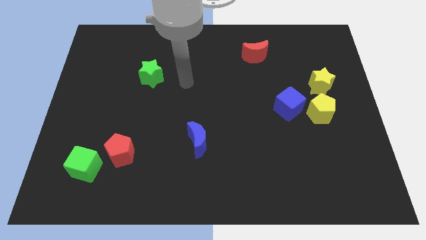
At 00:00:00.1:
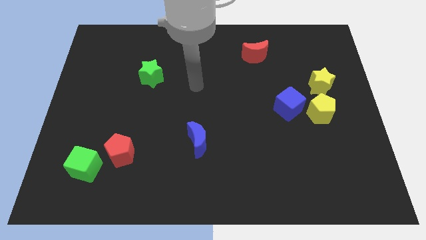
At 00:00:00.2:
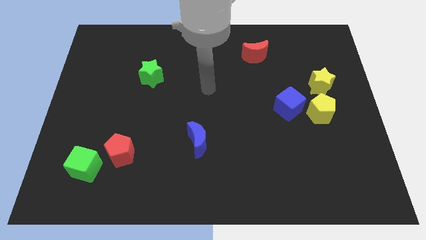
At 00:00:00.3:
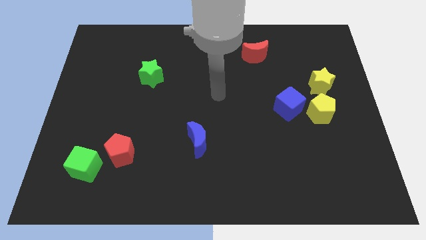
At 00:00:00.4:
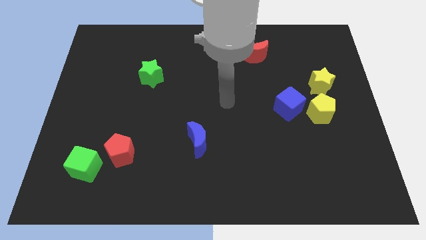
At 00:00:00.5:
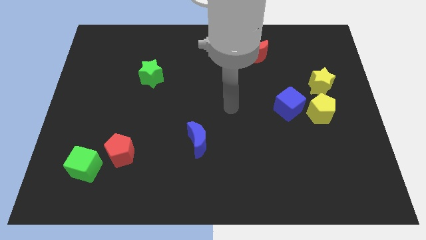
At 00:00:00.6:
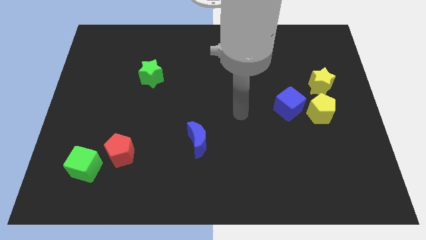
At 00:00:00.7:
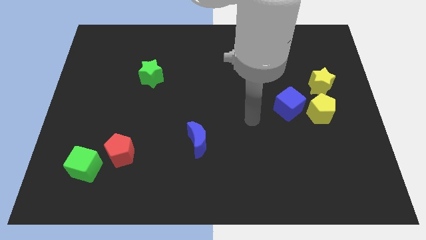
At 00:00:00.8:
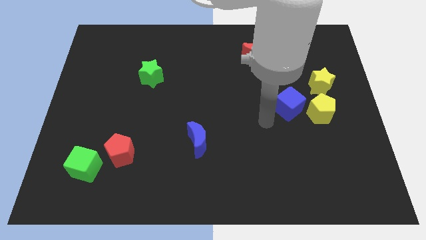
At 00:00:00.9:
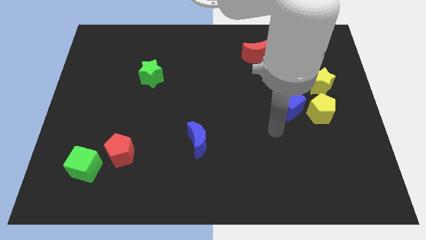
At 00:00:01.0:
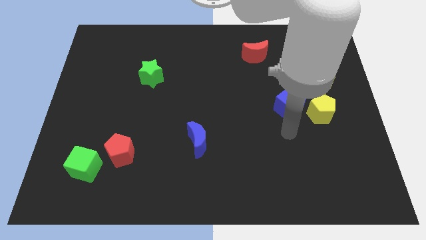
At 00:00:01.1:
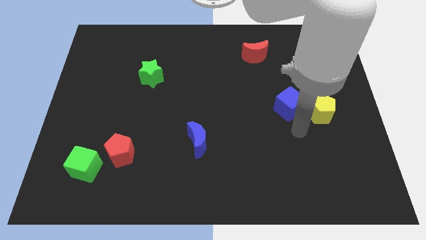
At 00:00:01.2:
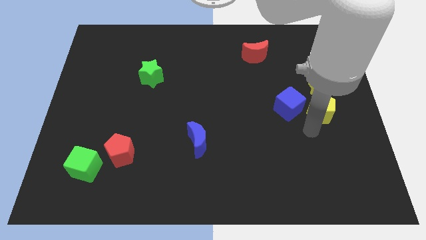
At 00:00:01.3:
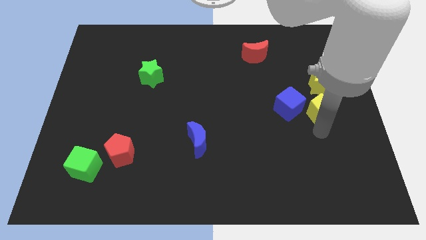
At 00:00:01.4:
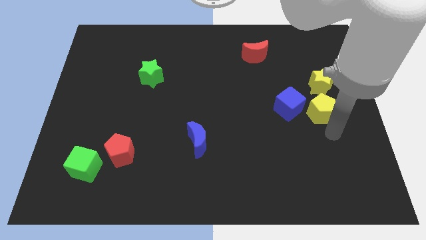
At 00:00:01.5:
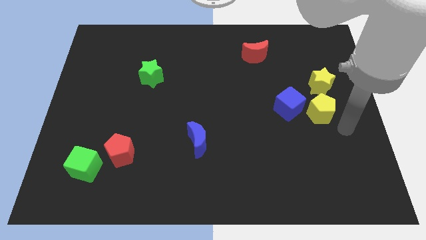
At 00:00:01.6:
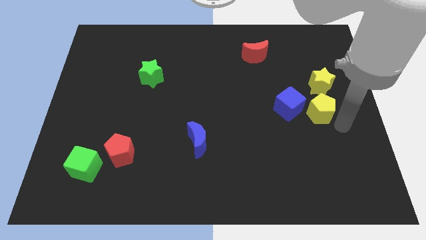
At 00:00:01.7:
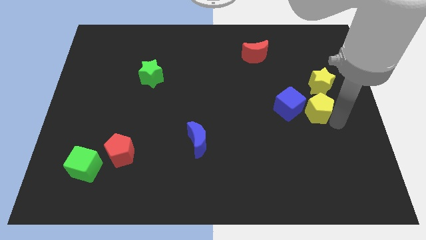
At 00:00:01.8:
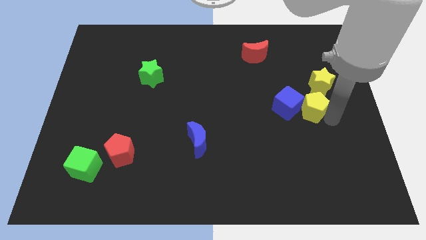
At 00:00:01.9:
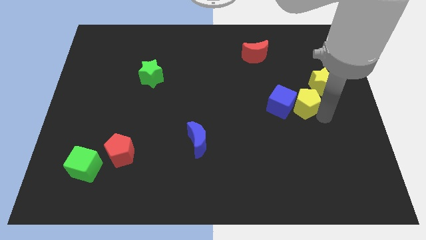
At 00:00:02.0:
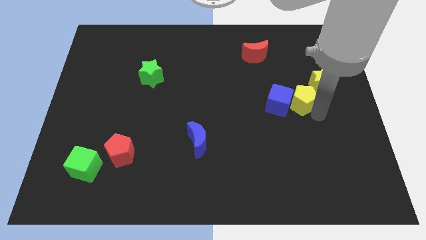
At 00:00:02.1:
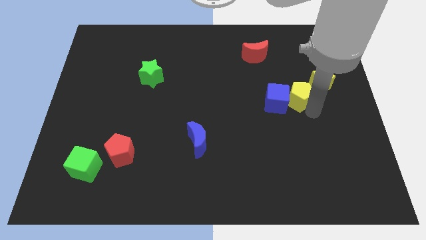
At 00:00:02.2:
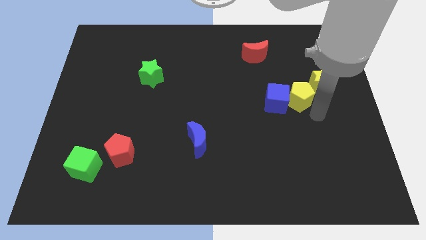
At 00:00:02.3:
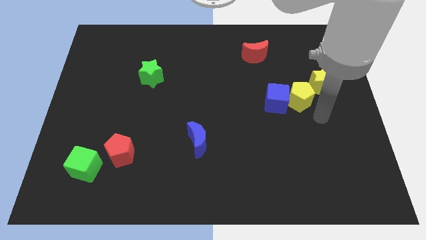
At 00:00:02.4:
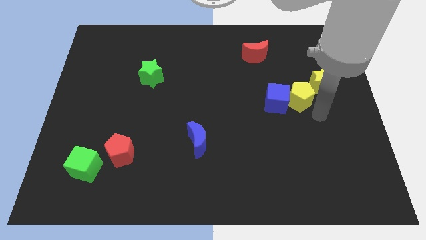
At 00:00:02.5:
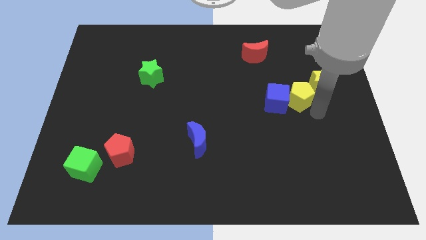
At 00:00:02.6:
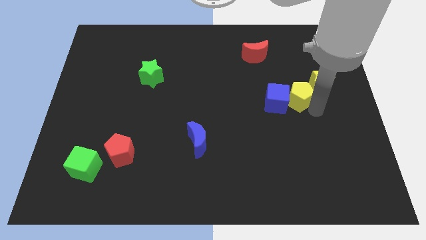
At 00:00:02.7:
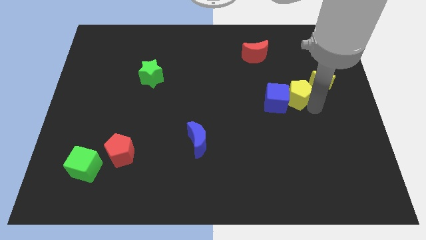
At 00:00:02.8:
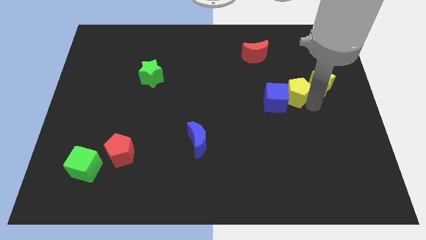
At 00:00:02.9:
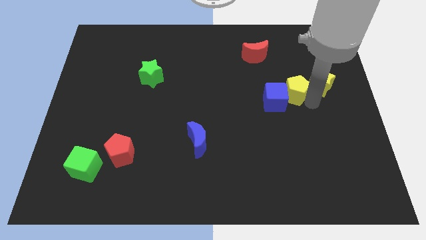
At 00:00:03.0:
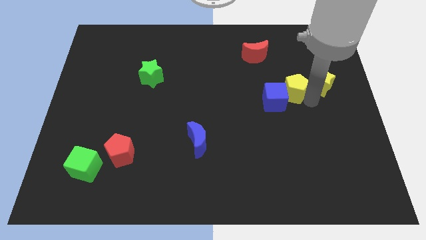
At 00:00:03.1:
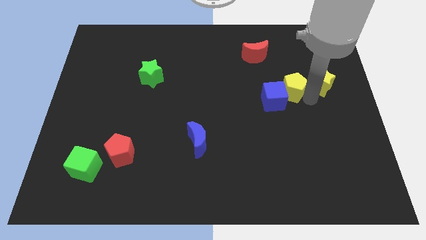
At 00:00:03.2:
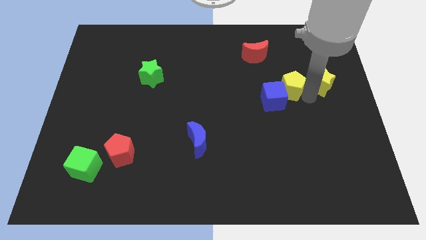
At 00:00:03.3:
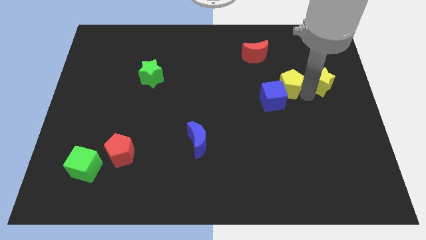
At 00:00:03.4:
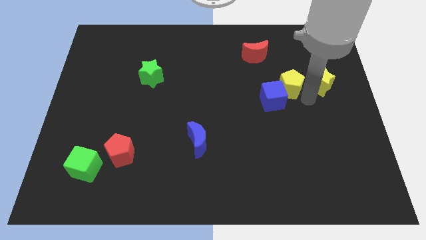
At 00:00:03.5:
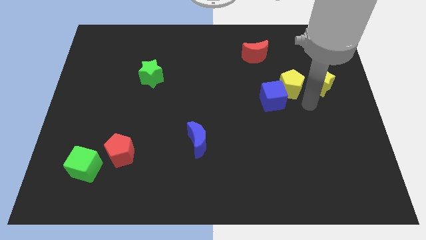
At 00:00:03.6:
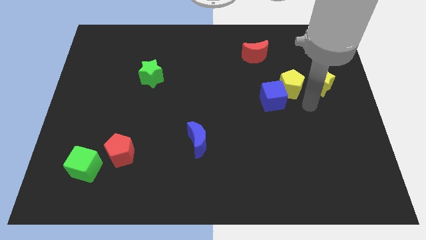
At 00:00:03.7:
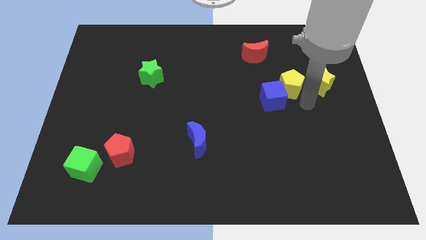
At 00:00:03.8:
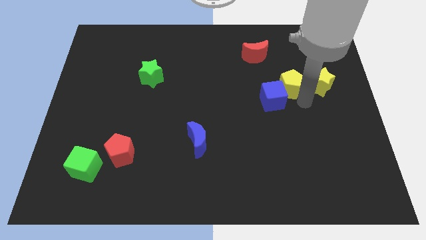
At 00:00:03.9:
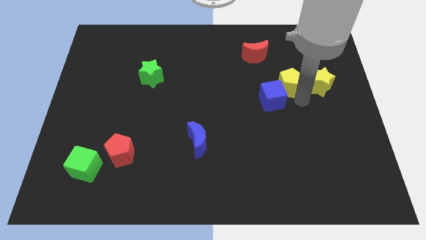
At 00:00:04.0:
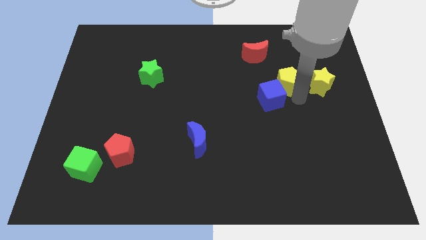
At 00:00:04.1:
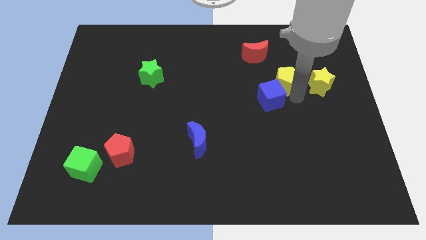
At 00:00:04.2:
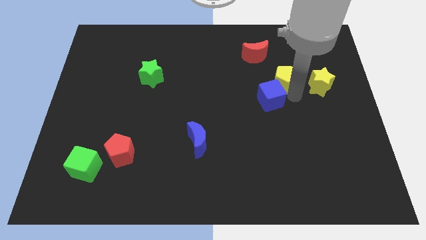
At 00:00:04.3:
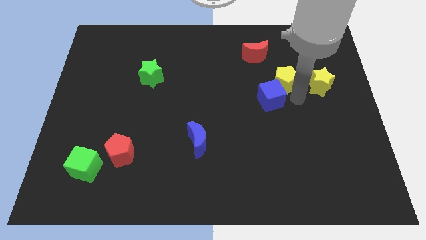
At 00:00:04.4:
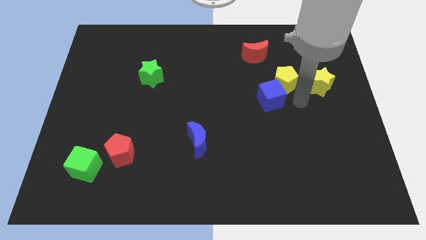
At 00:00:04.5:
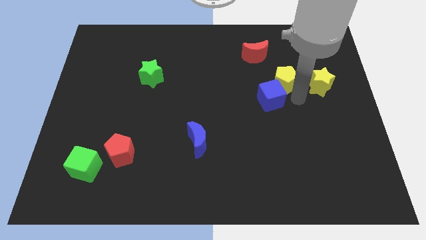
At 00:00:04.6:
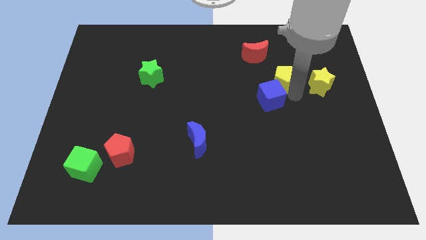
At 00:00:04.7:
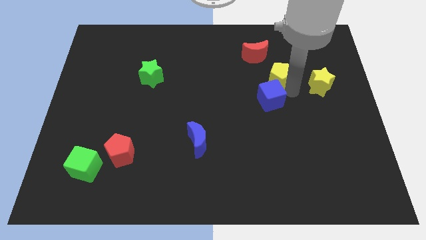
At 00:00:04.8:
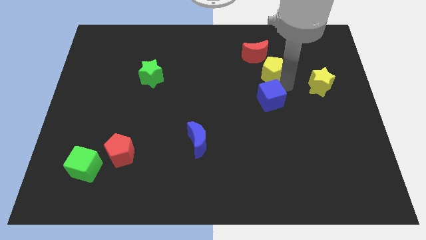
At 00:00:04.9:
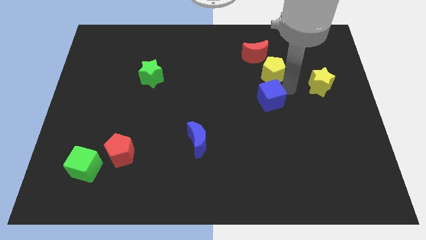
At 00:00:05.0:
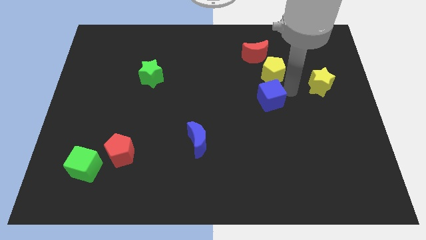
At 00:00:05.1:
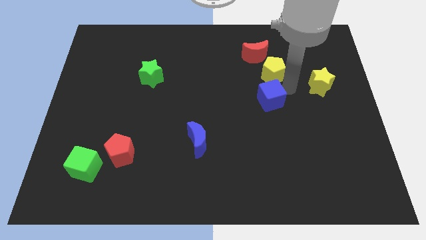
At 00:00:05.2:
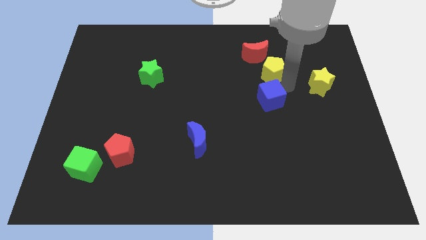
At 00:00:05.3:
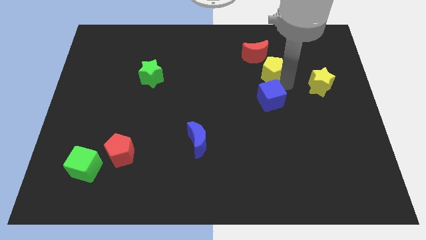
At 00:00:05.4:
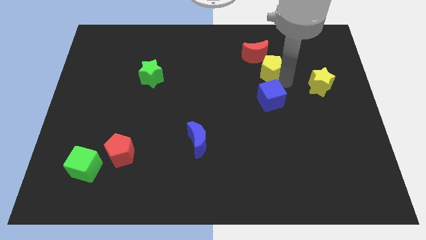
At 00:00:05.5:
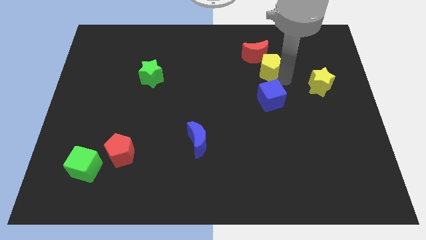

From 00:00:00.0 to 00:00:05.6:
put the yellow pentagon close to the red moon

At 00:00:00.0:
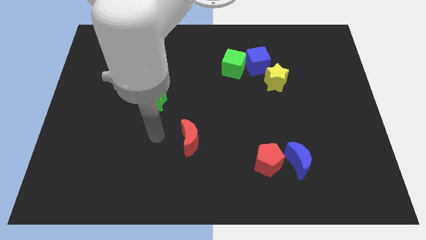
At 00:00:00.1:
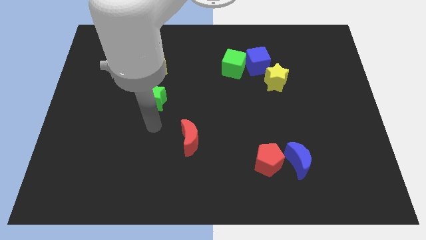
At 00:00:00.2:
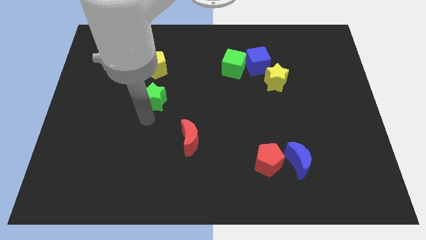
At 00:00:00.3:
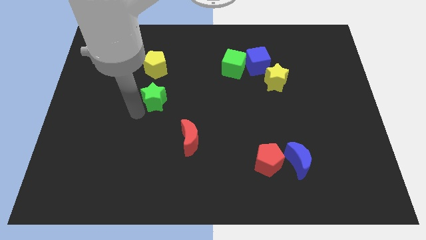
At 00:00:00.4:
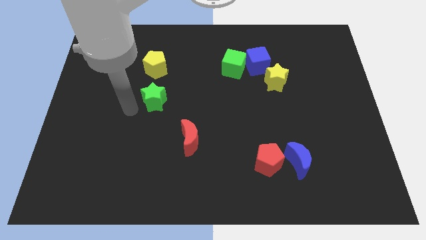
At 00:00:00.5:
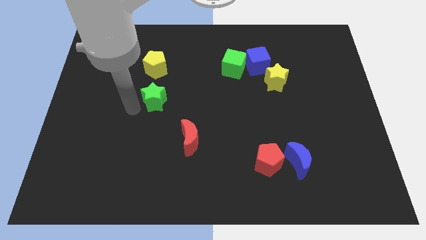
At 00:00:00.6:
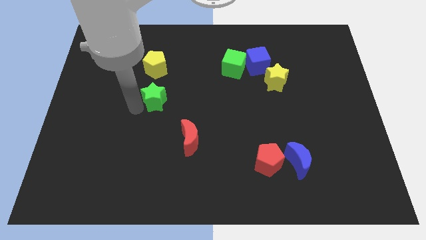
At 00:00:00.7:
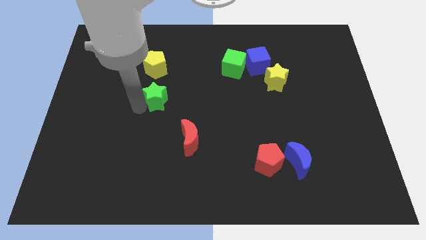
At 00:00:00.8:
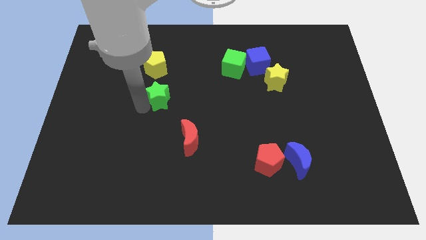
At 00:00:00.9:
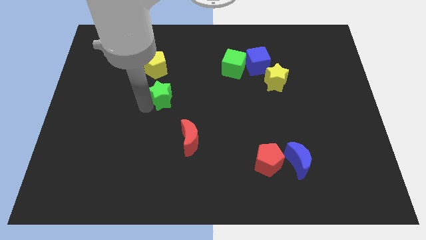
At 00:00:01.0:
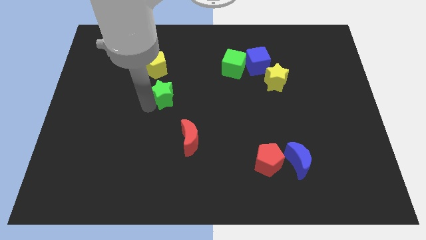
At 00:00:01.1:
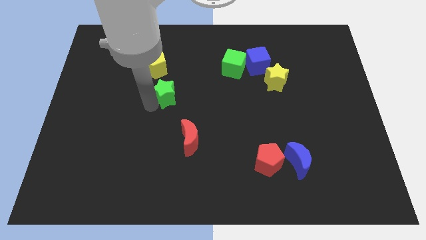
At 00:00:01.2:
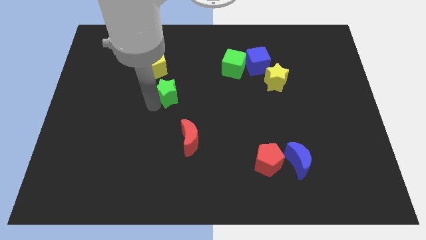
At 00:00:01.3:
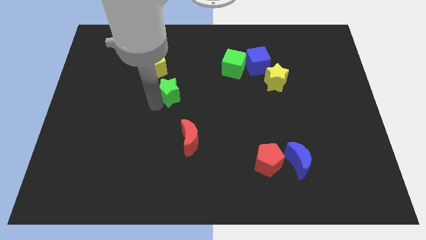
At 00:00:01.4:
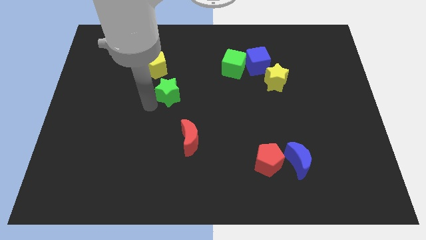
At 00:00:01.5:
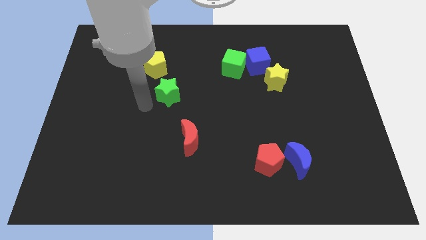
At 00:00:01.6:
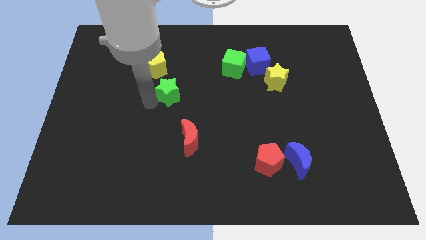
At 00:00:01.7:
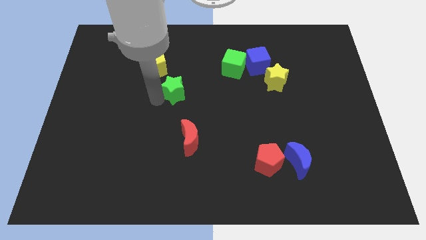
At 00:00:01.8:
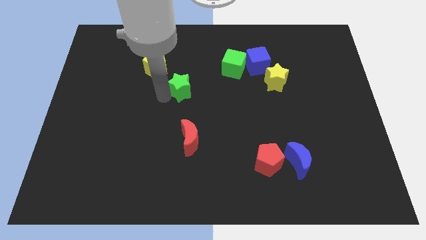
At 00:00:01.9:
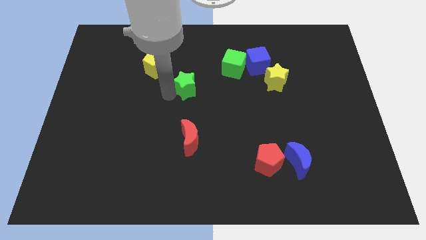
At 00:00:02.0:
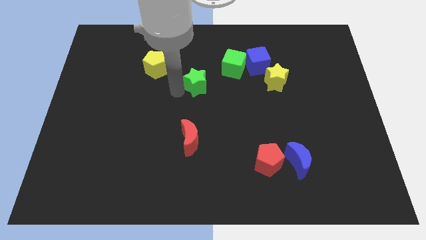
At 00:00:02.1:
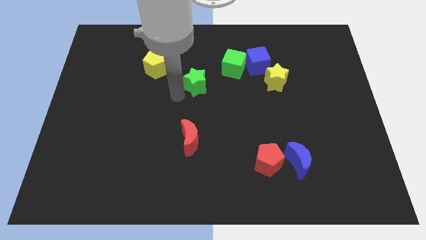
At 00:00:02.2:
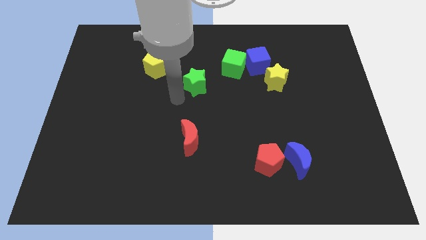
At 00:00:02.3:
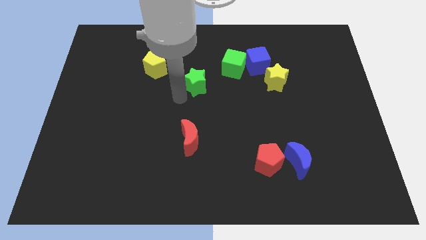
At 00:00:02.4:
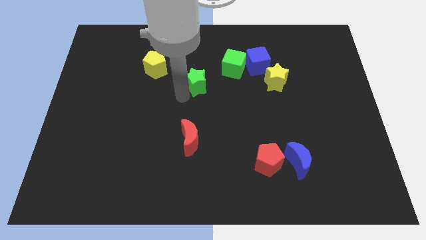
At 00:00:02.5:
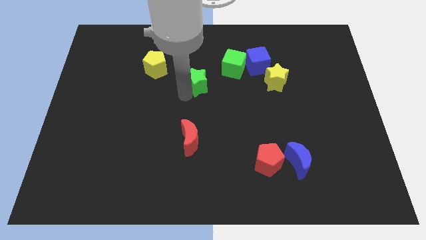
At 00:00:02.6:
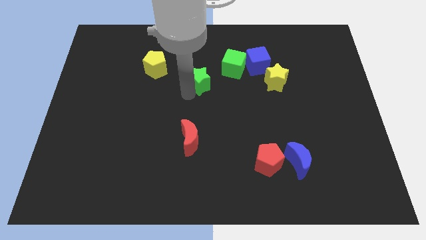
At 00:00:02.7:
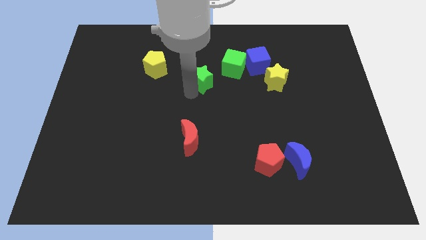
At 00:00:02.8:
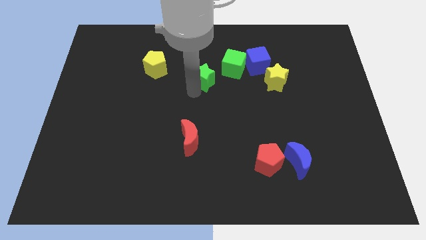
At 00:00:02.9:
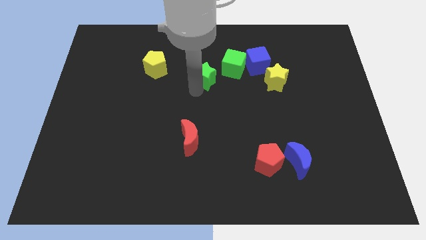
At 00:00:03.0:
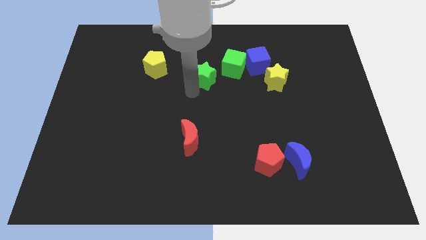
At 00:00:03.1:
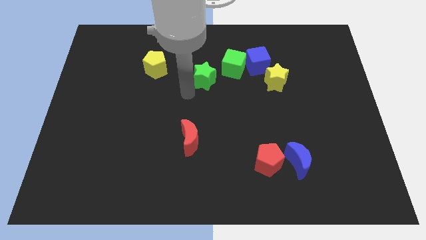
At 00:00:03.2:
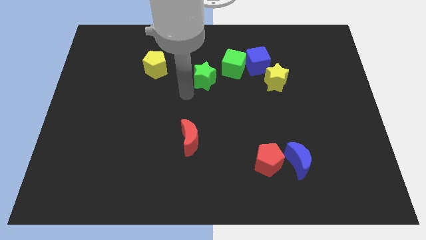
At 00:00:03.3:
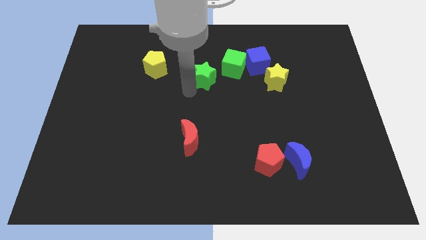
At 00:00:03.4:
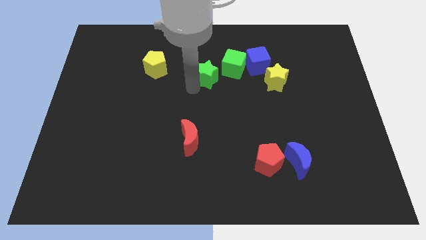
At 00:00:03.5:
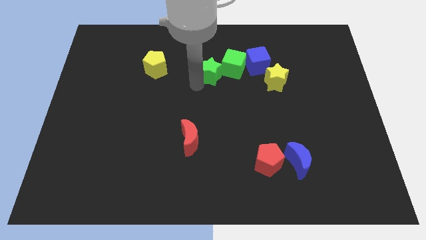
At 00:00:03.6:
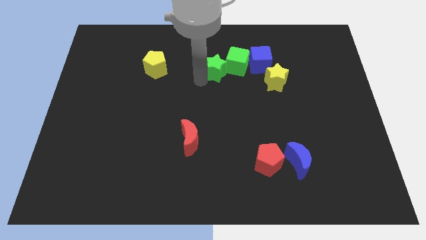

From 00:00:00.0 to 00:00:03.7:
put the green star towards the green cube
